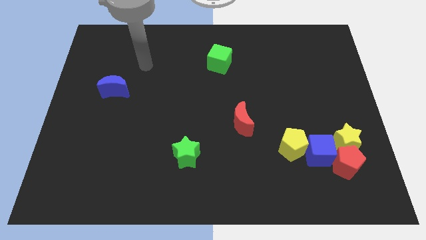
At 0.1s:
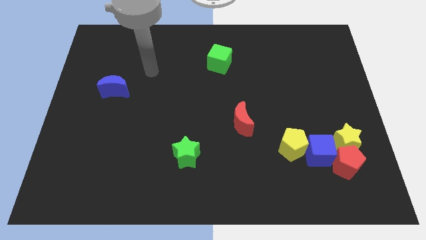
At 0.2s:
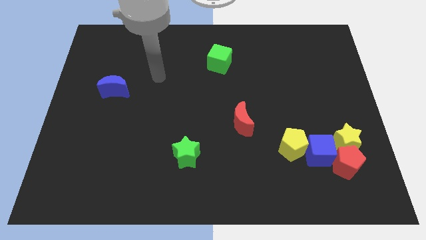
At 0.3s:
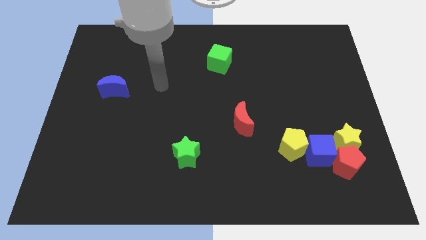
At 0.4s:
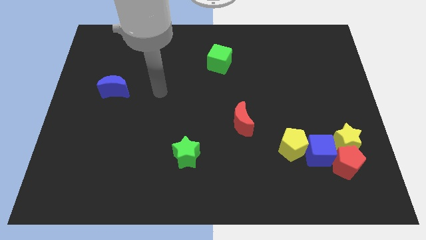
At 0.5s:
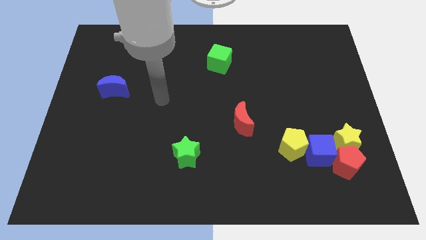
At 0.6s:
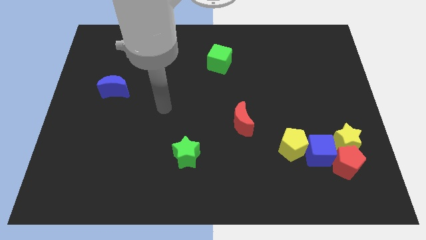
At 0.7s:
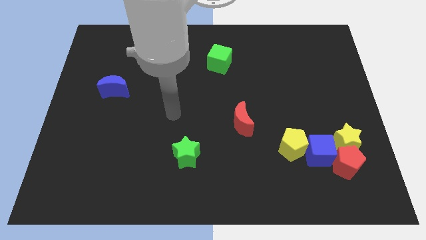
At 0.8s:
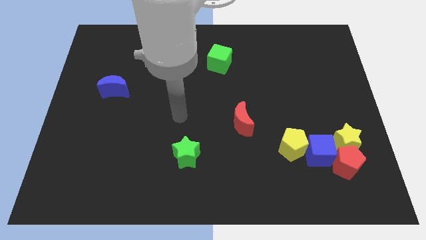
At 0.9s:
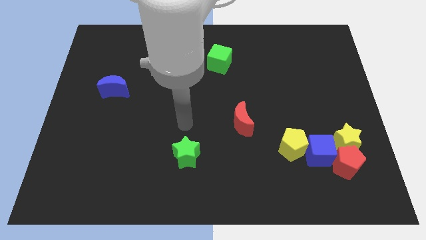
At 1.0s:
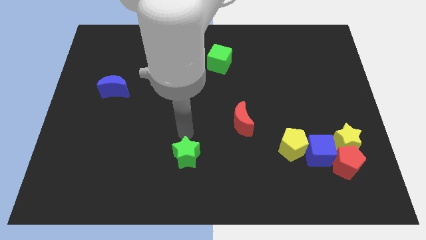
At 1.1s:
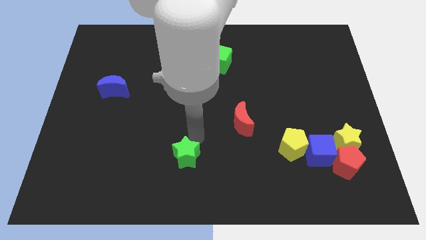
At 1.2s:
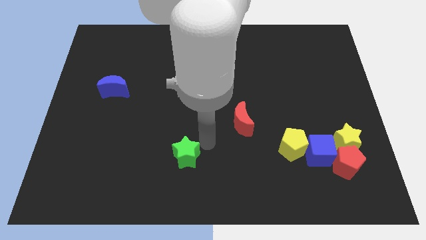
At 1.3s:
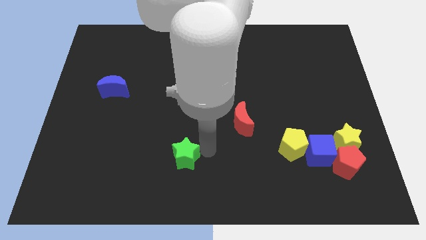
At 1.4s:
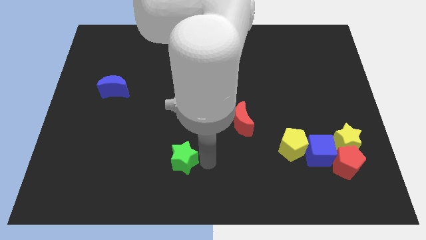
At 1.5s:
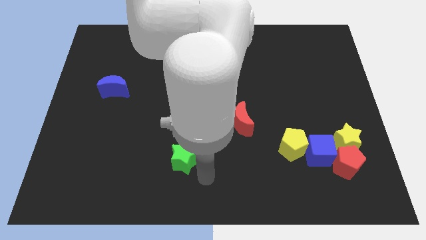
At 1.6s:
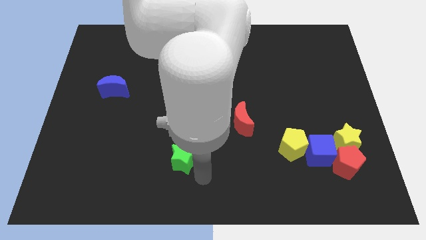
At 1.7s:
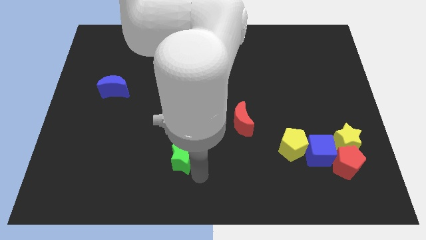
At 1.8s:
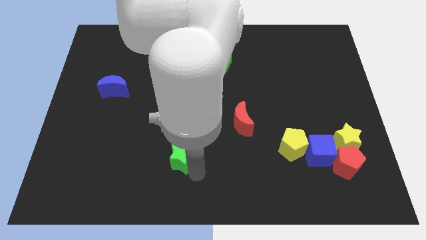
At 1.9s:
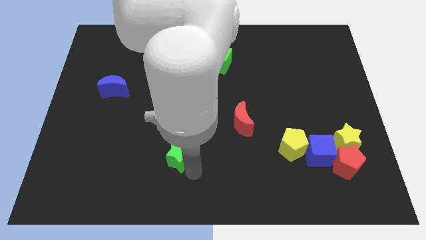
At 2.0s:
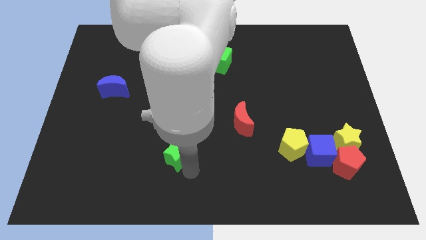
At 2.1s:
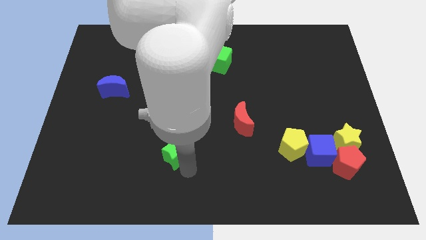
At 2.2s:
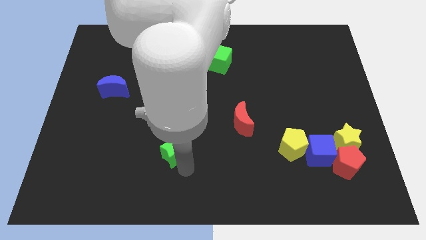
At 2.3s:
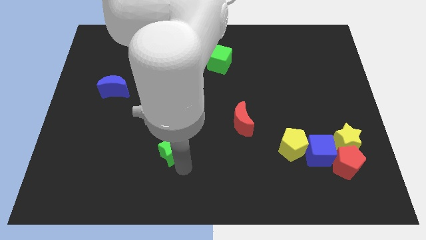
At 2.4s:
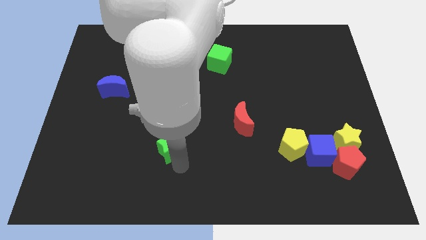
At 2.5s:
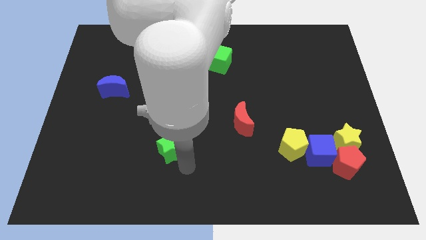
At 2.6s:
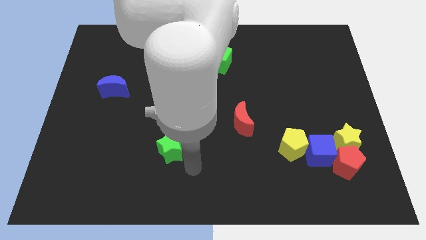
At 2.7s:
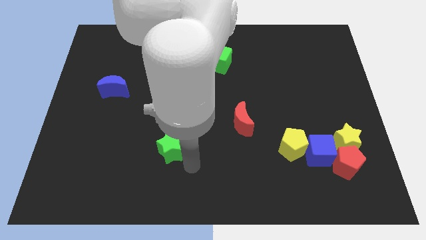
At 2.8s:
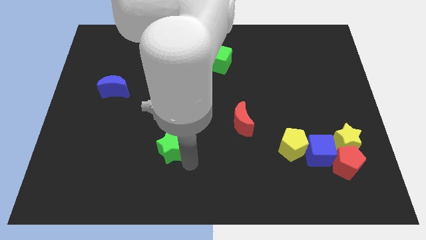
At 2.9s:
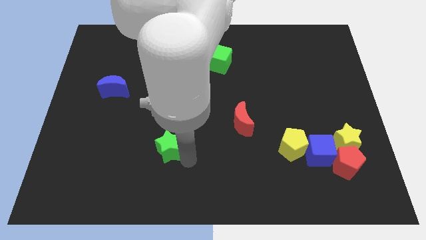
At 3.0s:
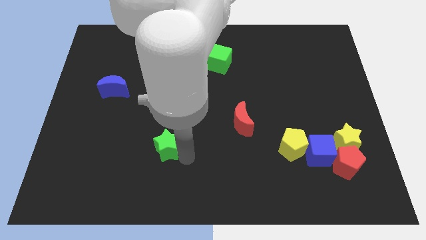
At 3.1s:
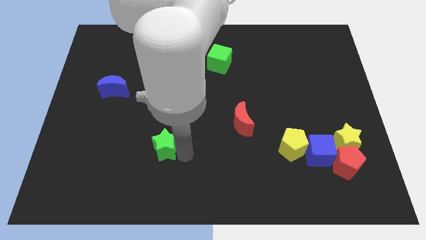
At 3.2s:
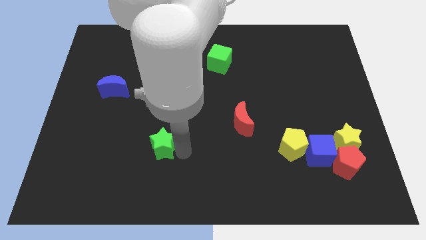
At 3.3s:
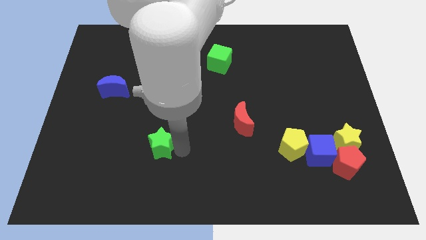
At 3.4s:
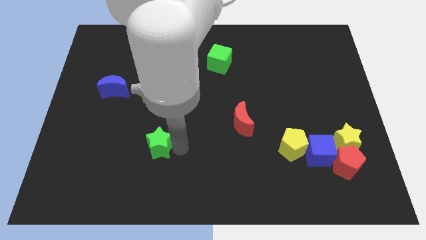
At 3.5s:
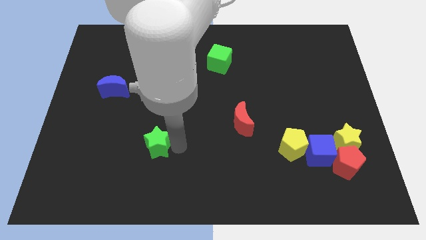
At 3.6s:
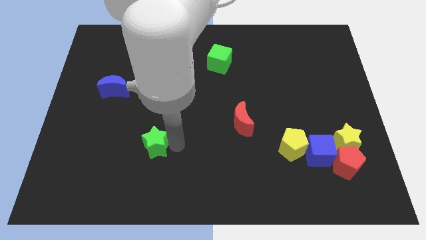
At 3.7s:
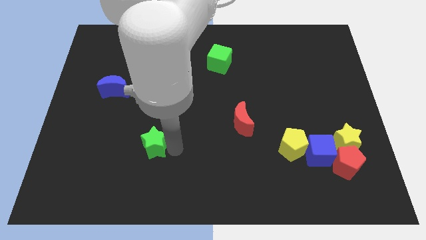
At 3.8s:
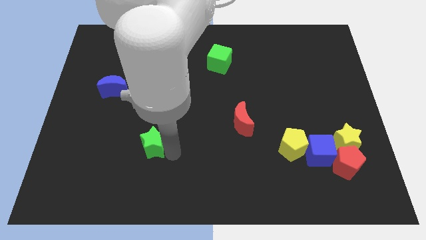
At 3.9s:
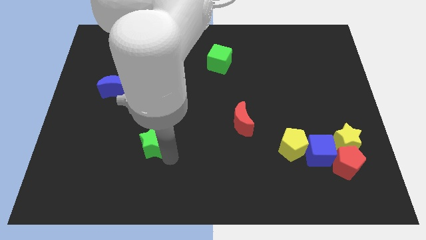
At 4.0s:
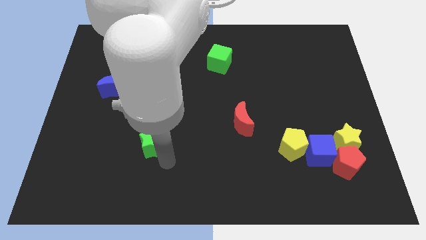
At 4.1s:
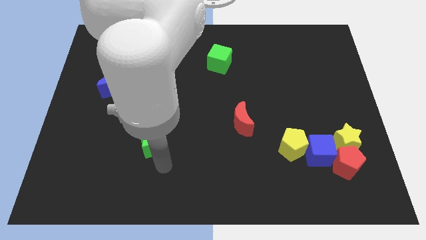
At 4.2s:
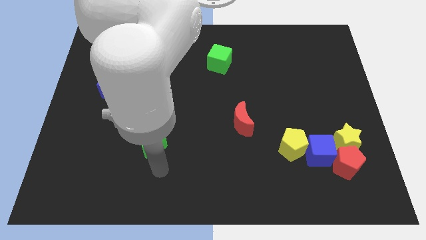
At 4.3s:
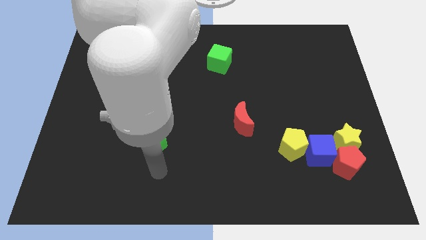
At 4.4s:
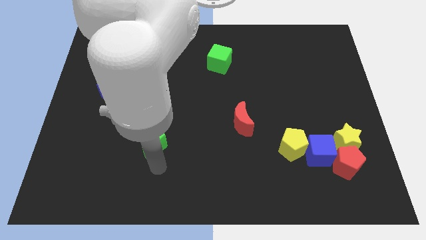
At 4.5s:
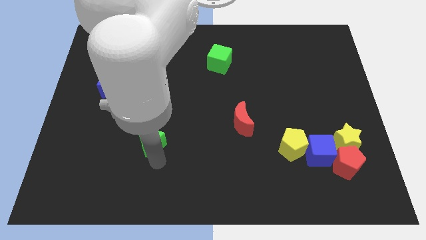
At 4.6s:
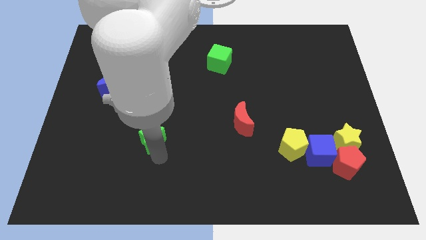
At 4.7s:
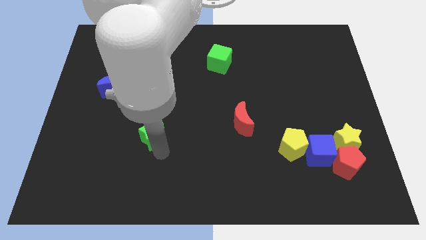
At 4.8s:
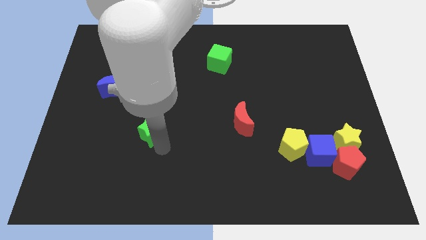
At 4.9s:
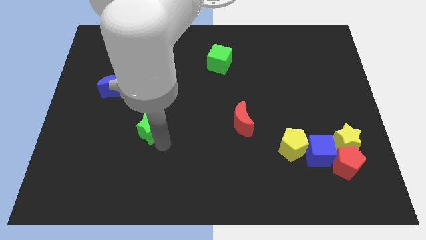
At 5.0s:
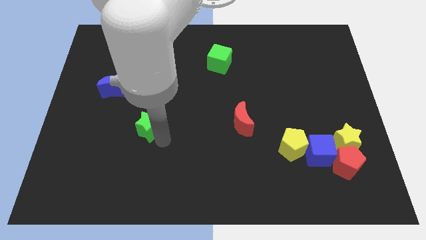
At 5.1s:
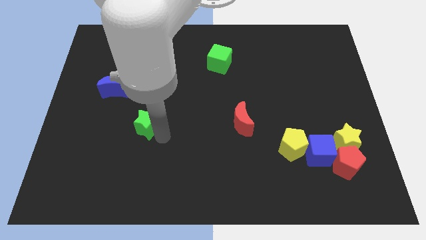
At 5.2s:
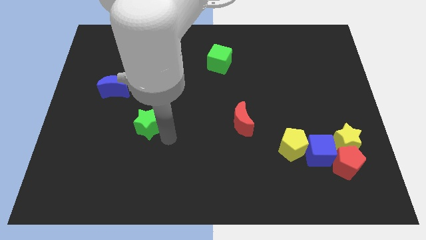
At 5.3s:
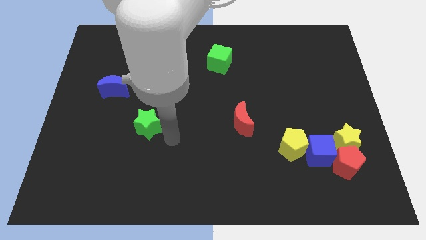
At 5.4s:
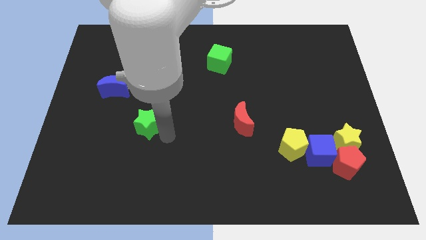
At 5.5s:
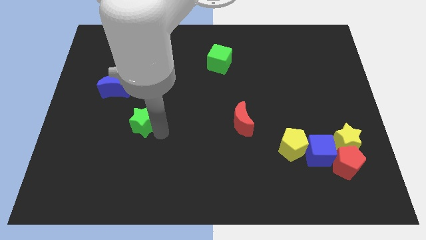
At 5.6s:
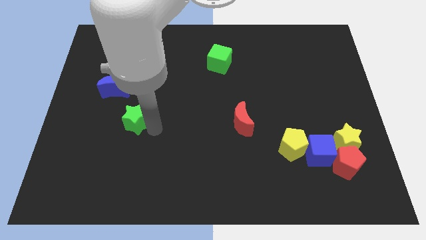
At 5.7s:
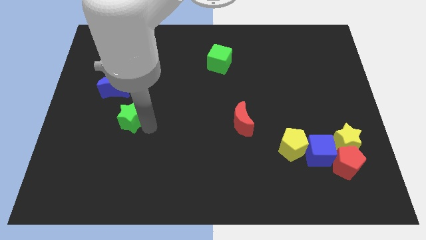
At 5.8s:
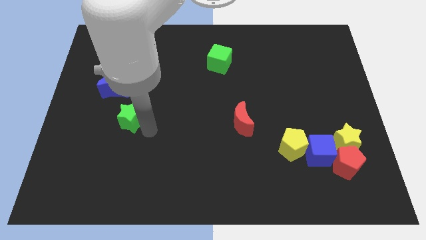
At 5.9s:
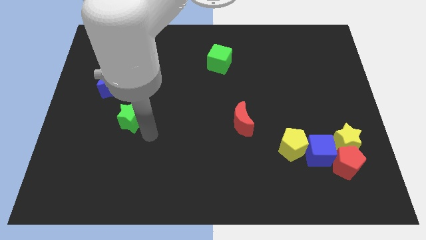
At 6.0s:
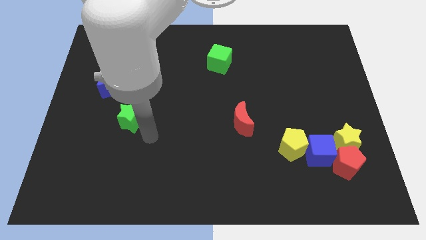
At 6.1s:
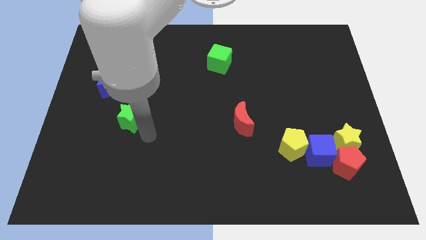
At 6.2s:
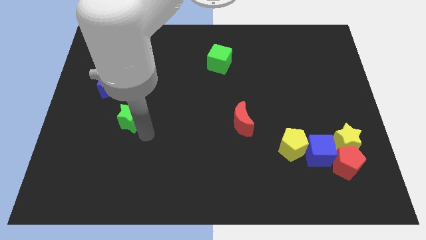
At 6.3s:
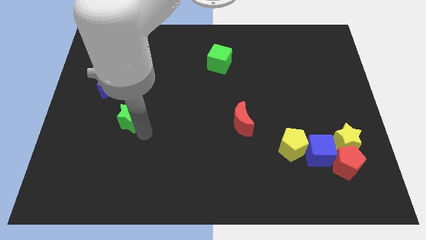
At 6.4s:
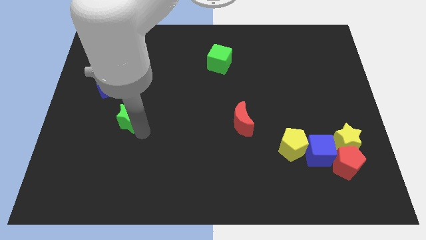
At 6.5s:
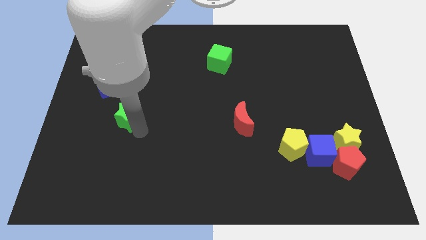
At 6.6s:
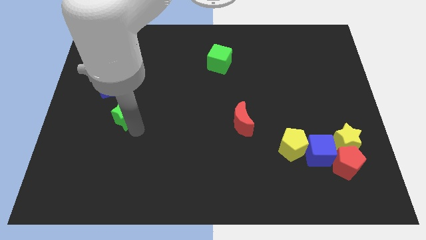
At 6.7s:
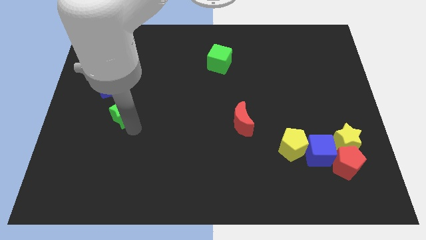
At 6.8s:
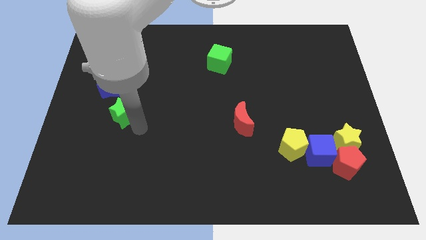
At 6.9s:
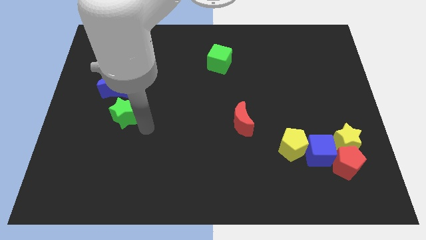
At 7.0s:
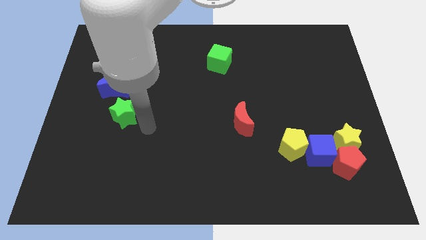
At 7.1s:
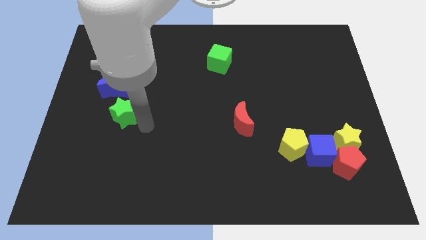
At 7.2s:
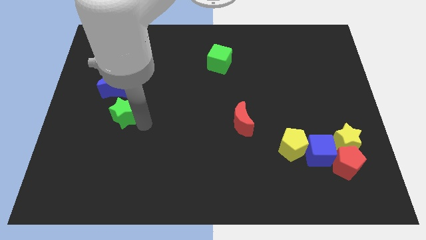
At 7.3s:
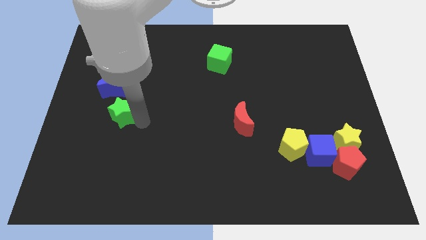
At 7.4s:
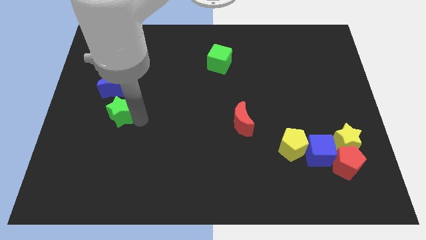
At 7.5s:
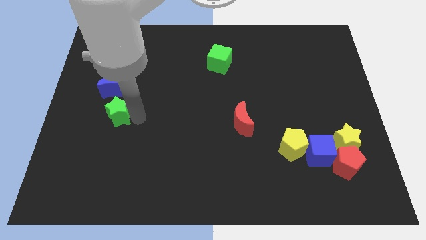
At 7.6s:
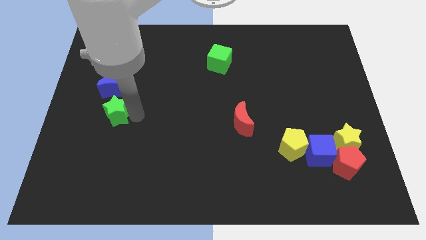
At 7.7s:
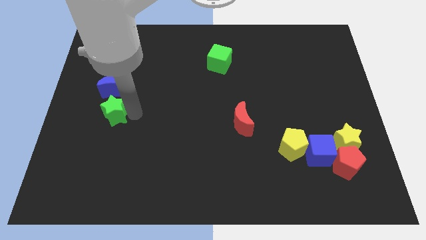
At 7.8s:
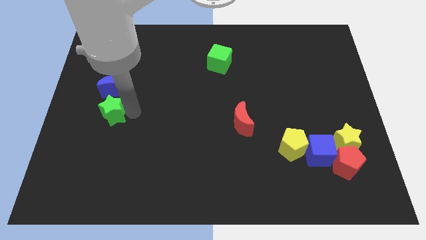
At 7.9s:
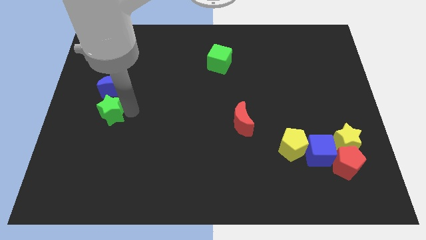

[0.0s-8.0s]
slide the green star upwards and to the left
